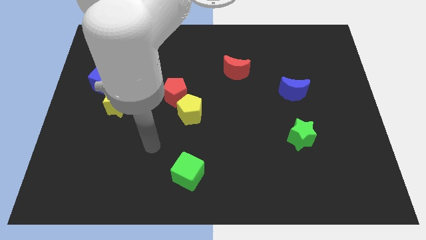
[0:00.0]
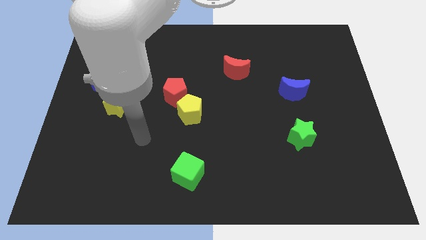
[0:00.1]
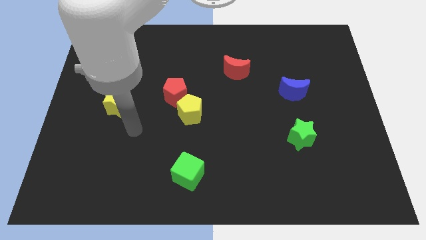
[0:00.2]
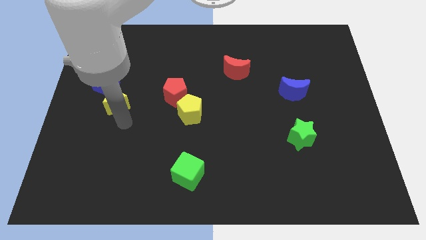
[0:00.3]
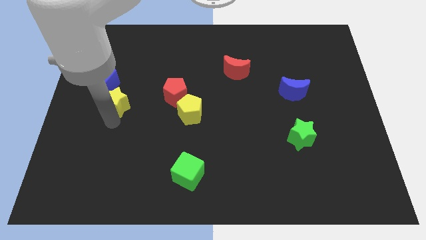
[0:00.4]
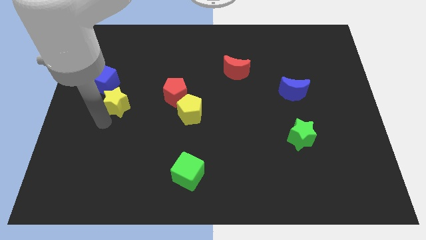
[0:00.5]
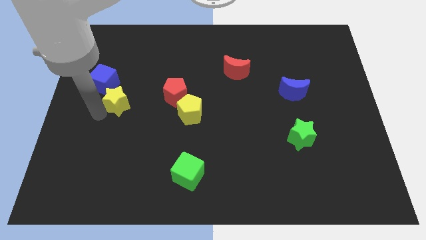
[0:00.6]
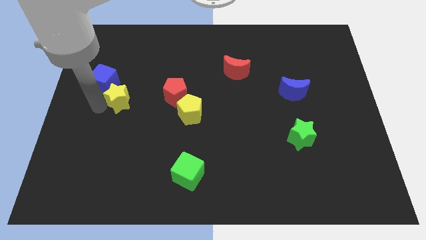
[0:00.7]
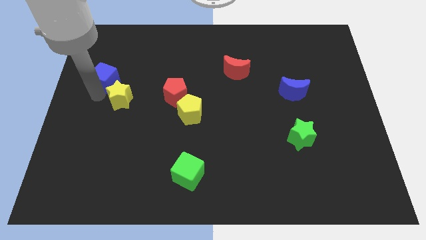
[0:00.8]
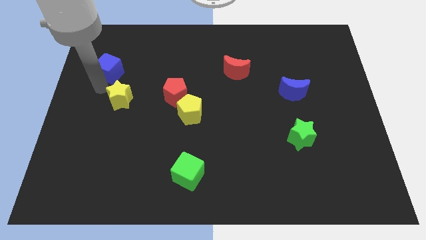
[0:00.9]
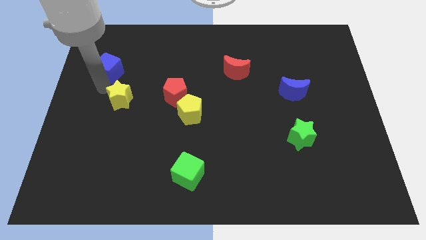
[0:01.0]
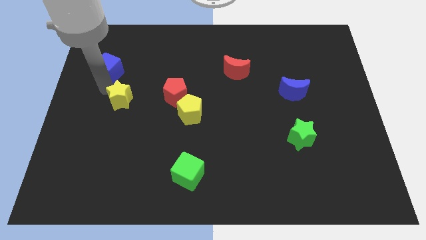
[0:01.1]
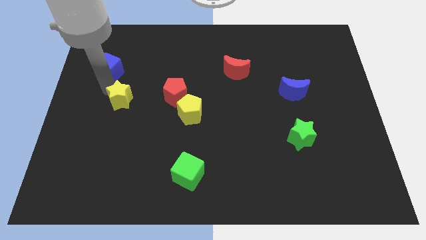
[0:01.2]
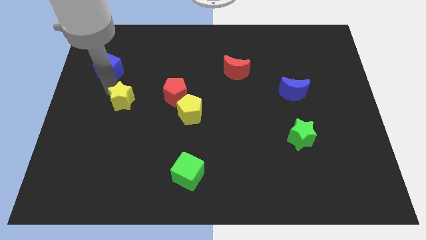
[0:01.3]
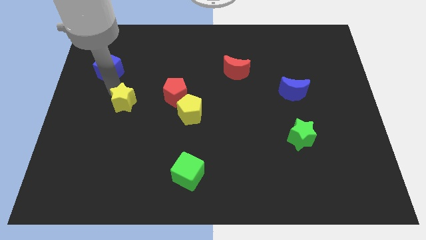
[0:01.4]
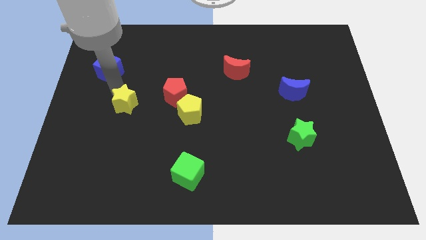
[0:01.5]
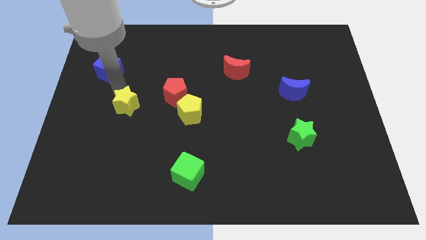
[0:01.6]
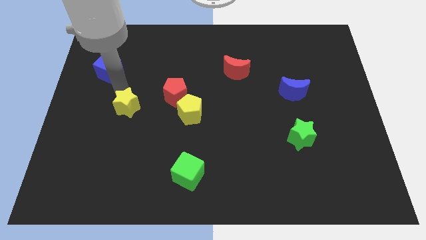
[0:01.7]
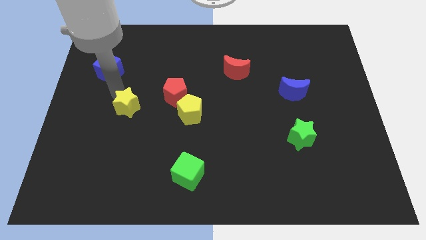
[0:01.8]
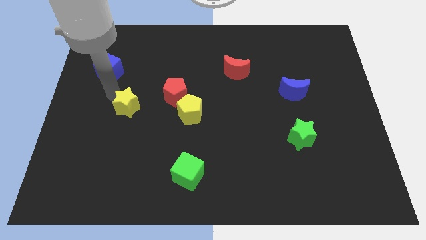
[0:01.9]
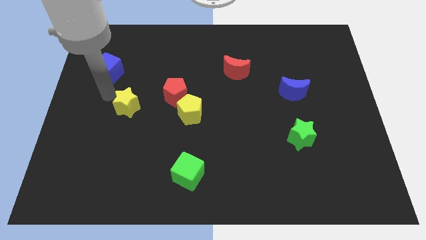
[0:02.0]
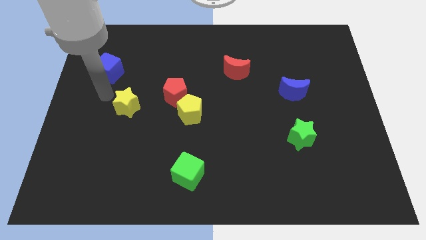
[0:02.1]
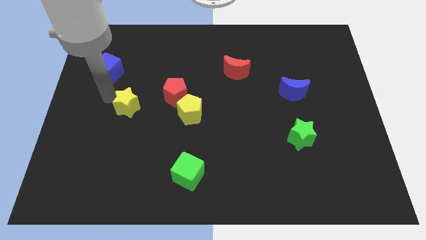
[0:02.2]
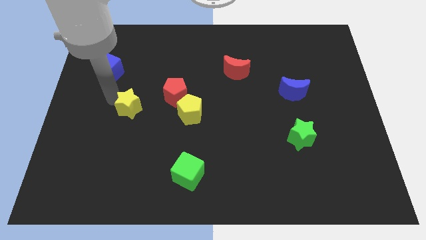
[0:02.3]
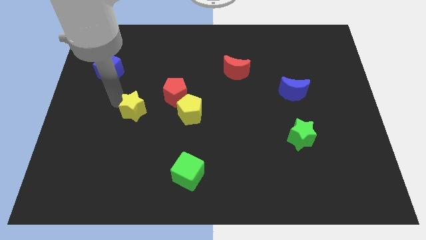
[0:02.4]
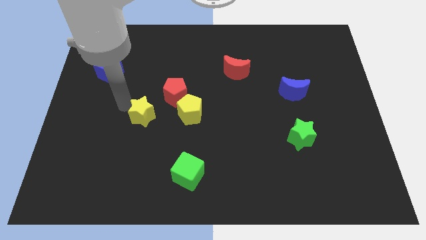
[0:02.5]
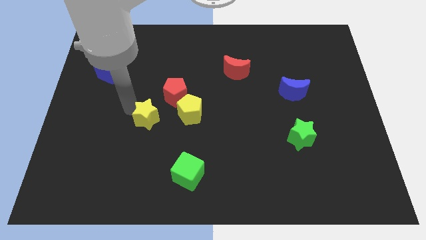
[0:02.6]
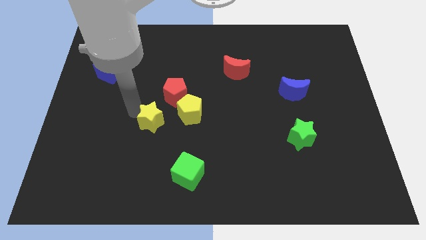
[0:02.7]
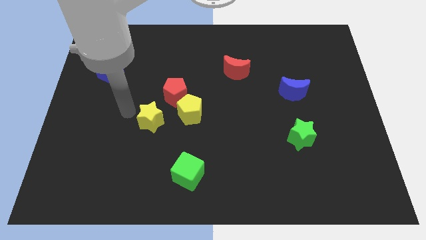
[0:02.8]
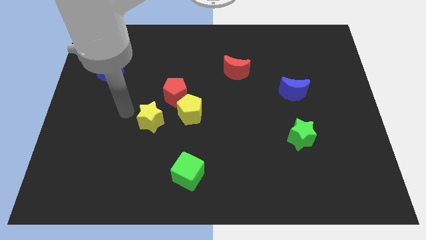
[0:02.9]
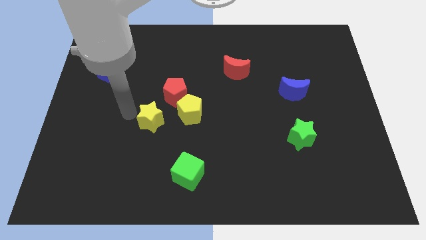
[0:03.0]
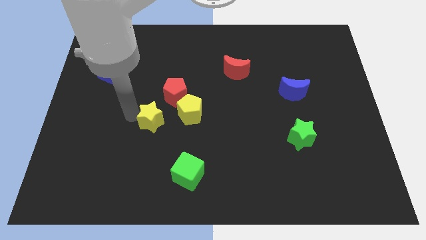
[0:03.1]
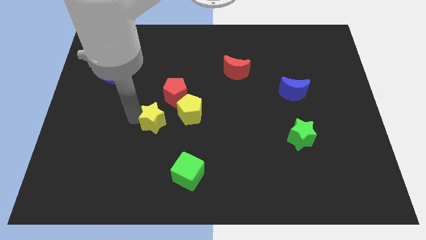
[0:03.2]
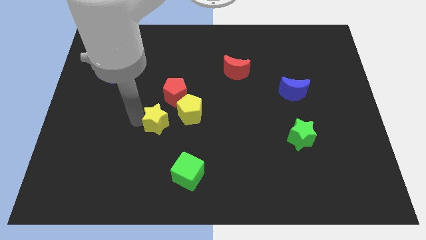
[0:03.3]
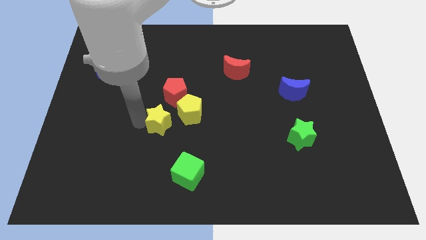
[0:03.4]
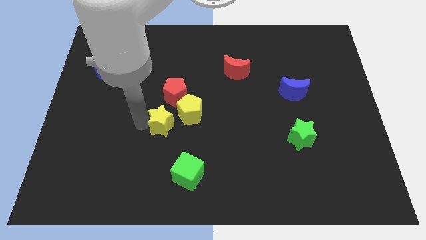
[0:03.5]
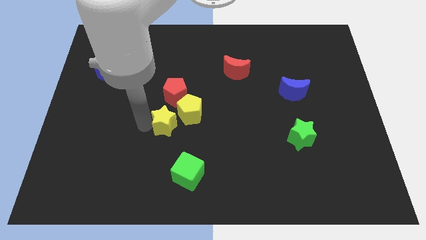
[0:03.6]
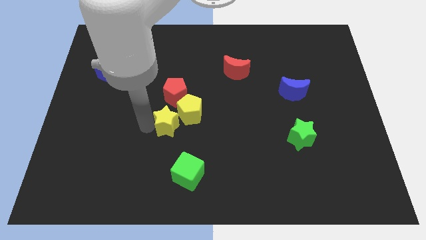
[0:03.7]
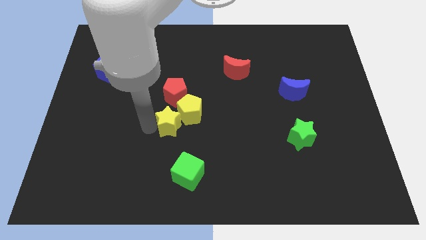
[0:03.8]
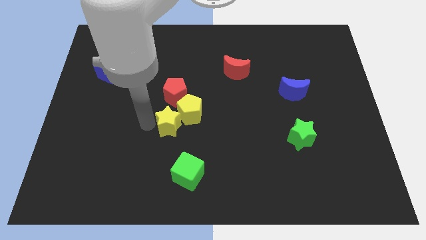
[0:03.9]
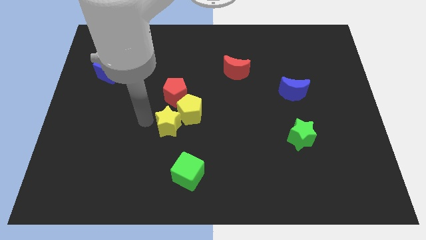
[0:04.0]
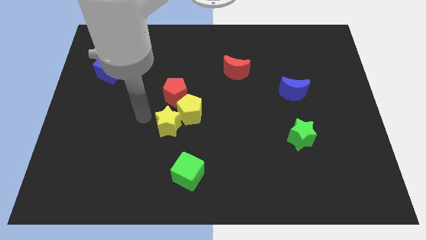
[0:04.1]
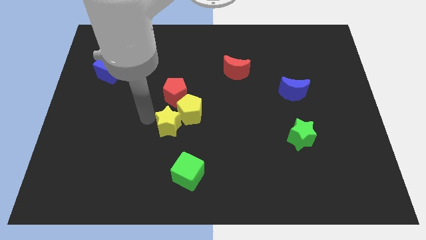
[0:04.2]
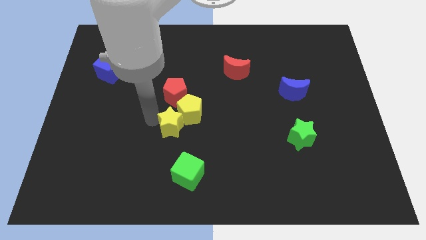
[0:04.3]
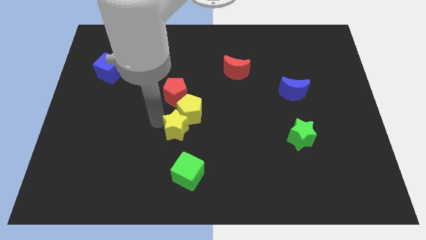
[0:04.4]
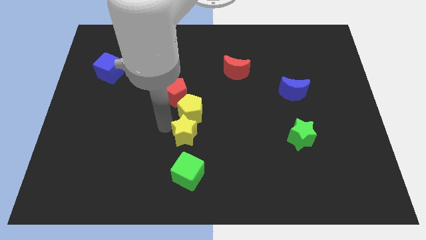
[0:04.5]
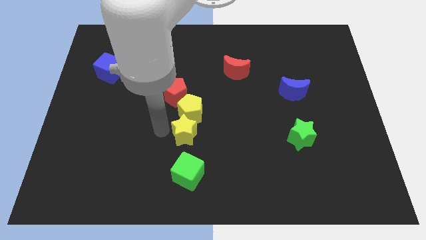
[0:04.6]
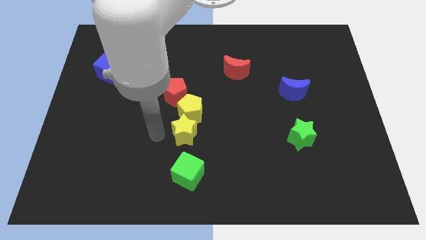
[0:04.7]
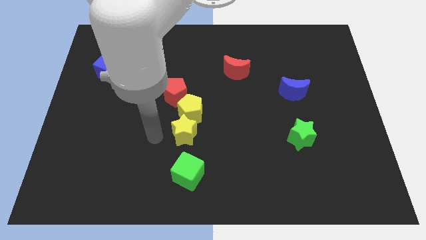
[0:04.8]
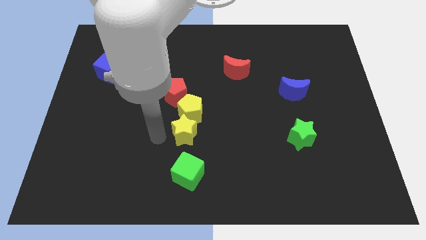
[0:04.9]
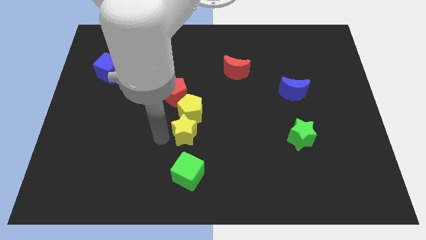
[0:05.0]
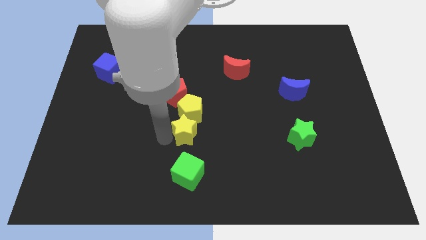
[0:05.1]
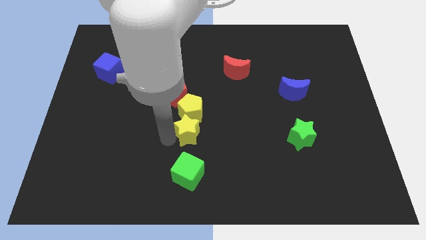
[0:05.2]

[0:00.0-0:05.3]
slide the yellow star to the bottom right side of the yellow pentagon

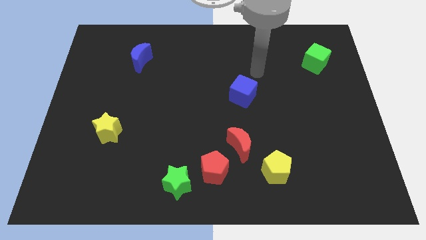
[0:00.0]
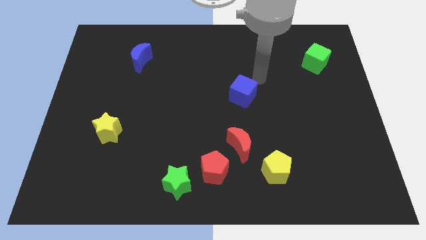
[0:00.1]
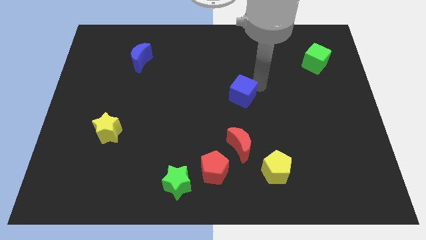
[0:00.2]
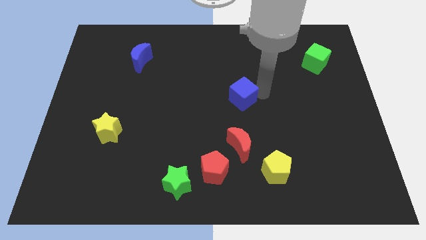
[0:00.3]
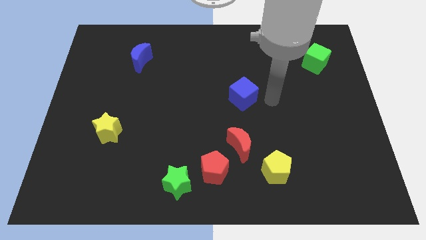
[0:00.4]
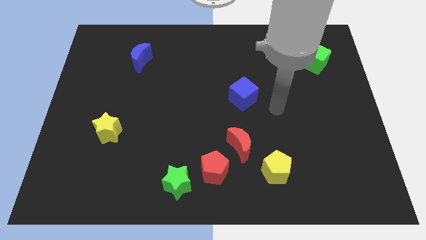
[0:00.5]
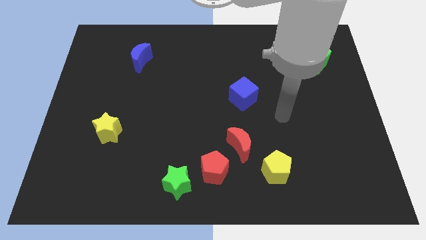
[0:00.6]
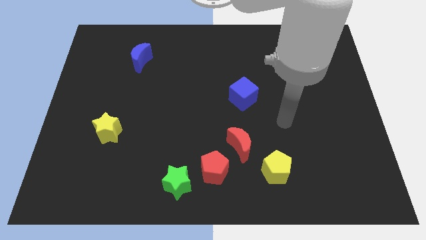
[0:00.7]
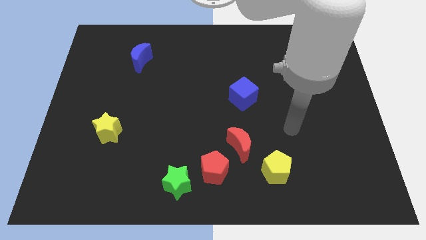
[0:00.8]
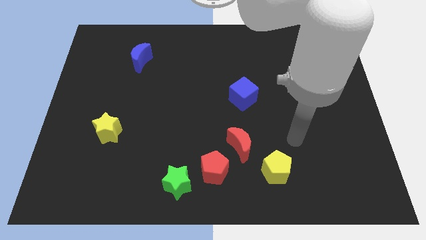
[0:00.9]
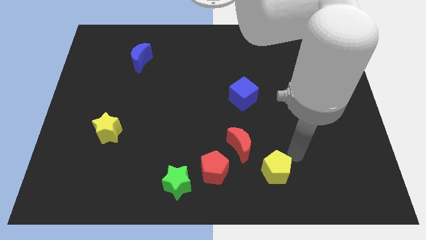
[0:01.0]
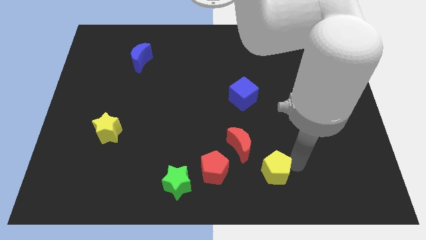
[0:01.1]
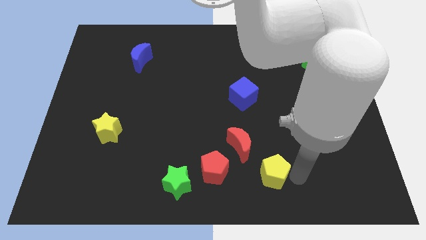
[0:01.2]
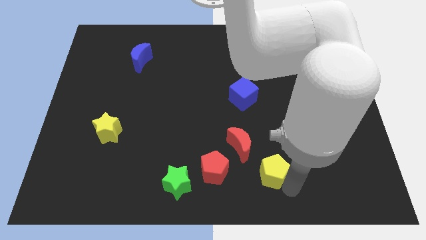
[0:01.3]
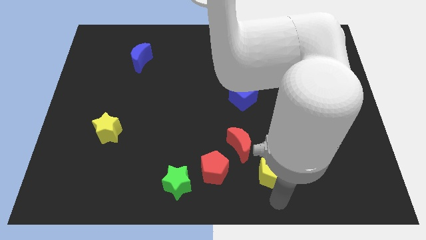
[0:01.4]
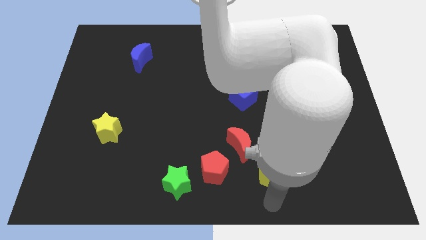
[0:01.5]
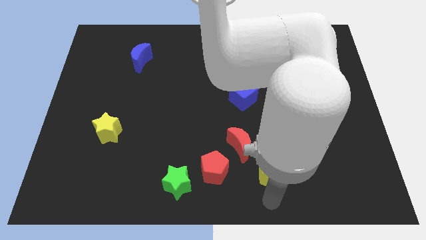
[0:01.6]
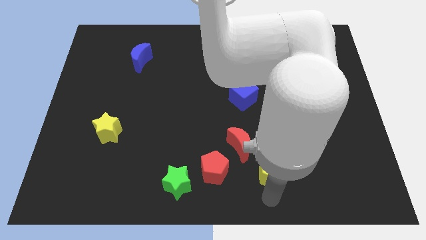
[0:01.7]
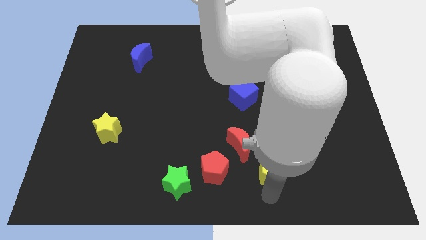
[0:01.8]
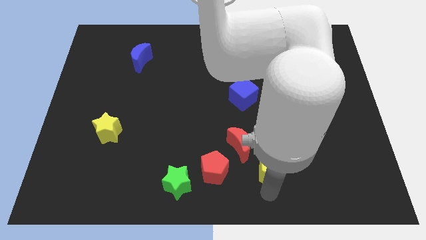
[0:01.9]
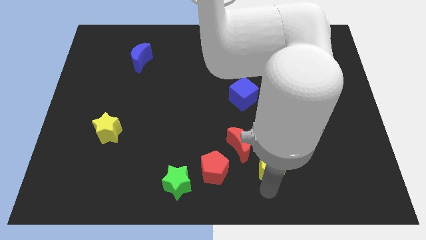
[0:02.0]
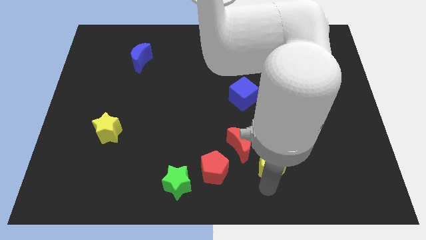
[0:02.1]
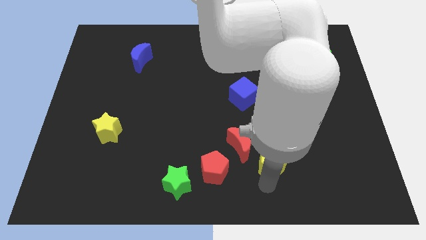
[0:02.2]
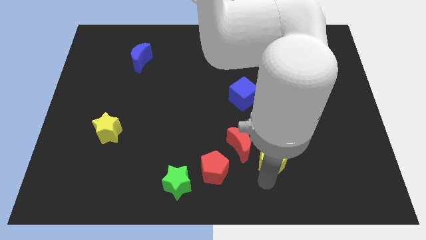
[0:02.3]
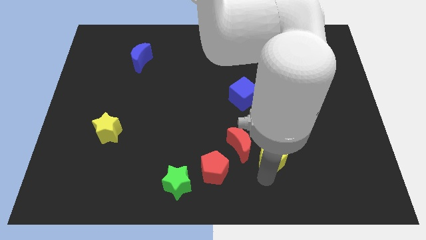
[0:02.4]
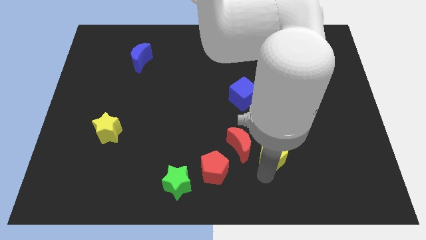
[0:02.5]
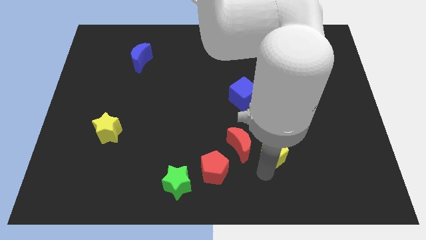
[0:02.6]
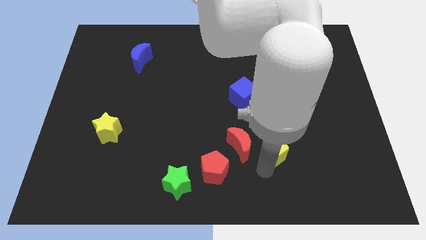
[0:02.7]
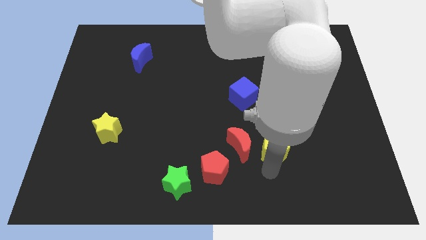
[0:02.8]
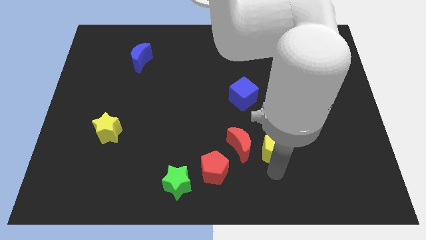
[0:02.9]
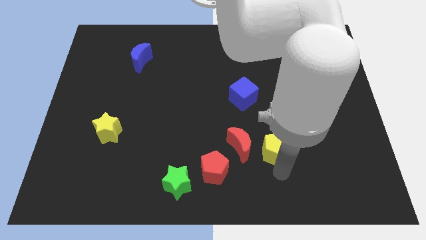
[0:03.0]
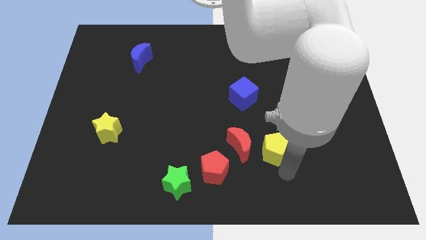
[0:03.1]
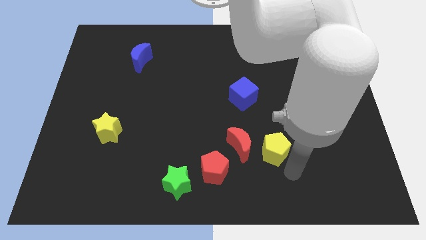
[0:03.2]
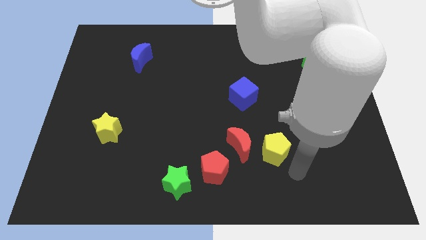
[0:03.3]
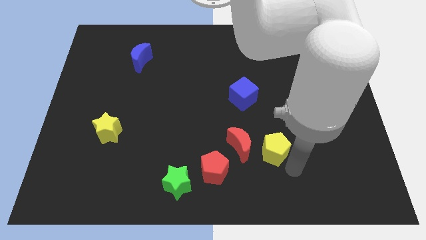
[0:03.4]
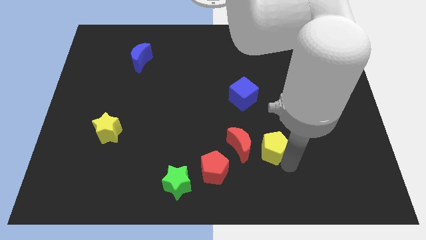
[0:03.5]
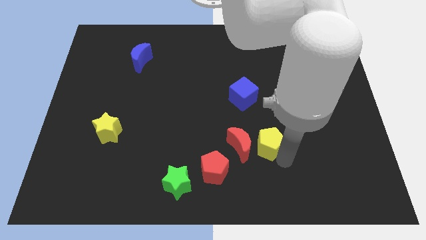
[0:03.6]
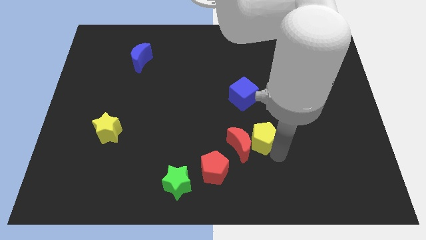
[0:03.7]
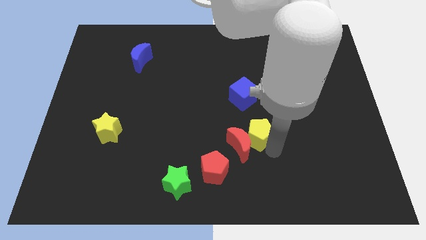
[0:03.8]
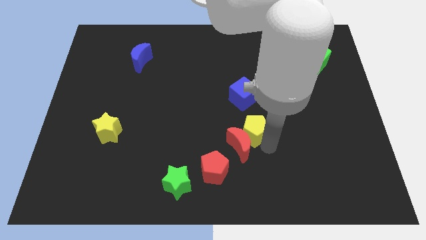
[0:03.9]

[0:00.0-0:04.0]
slide the yellow pentagon to the top side of the red moon
